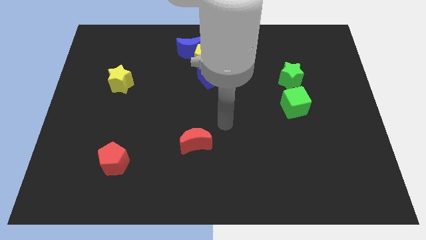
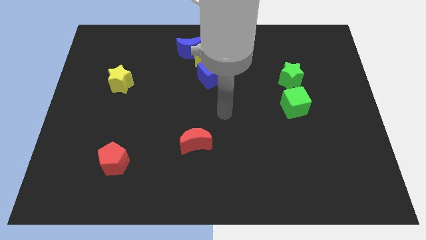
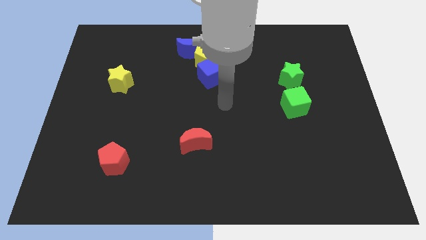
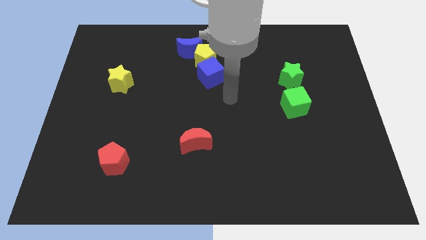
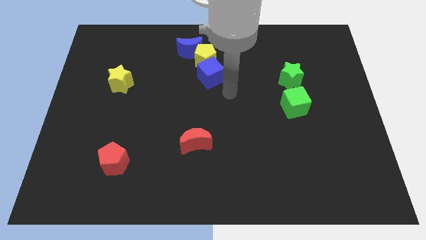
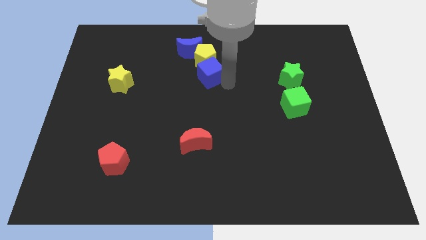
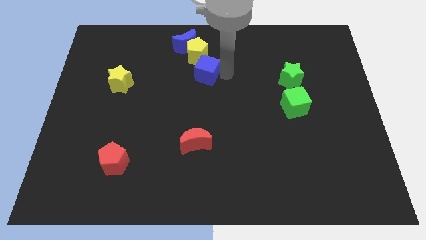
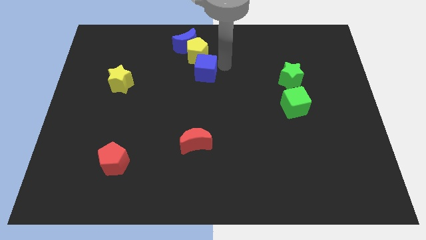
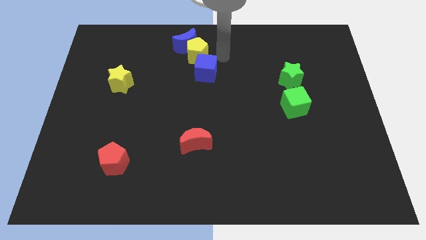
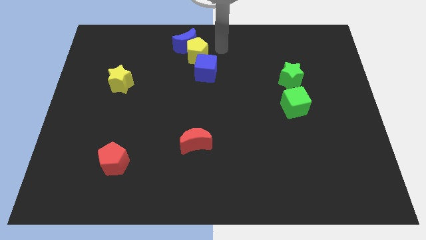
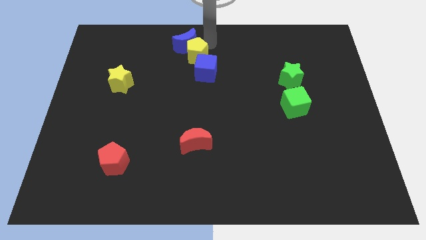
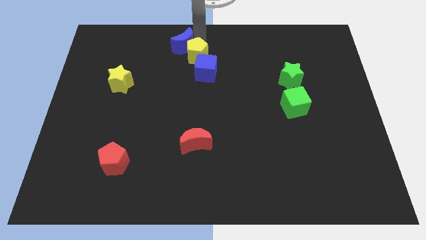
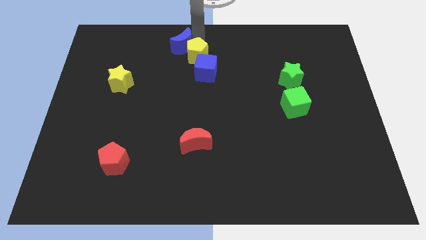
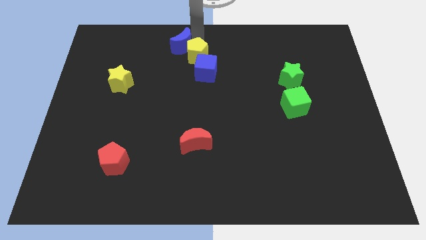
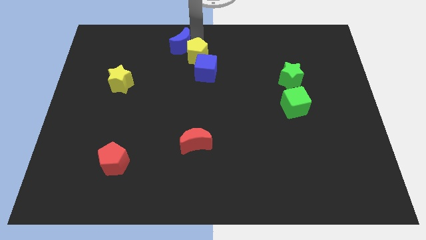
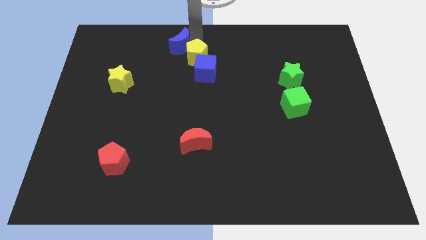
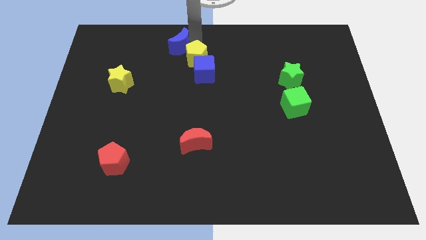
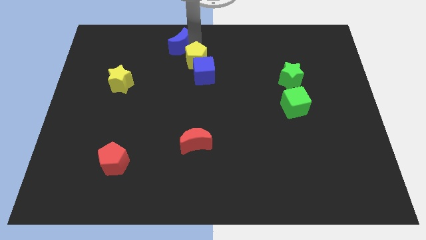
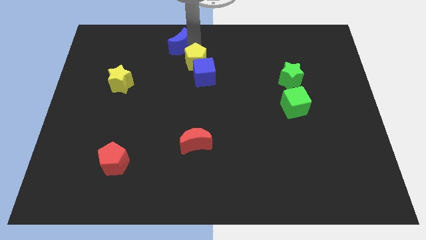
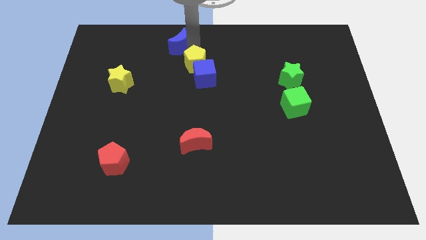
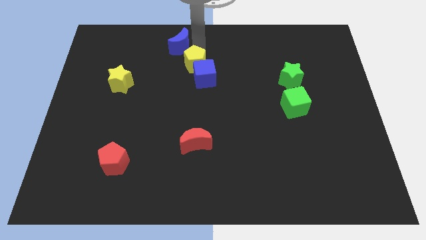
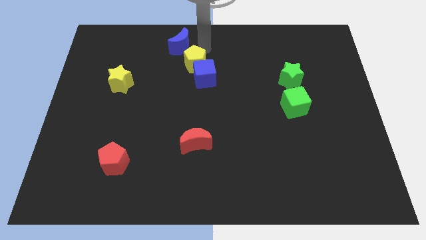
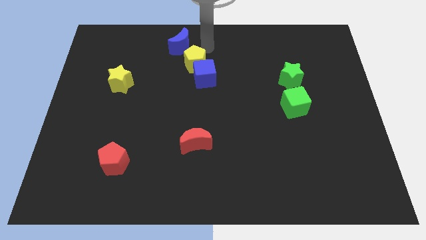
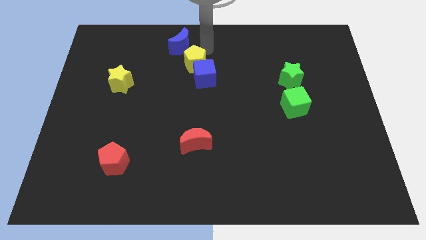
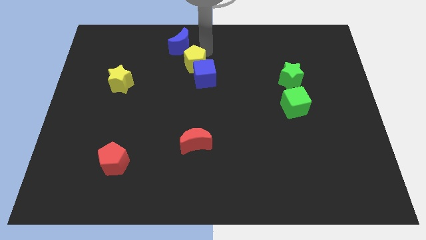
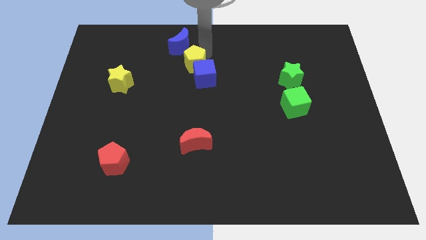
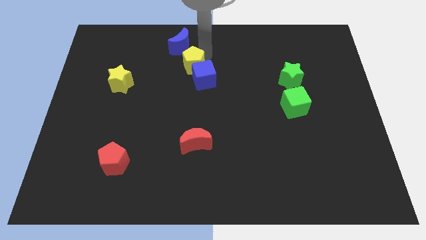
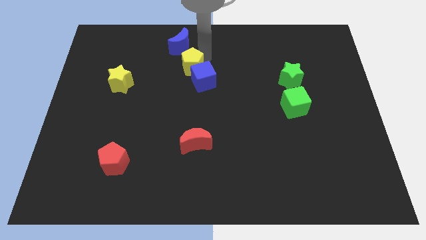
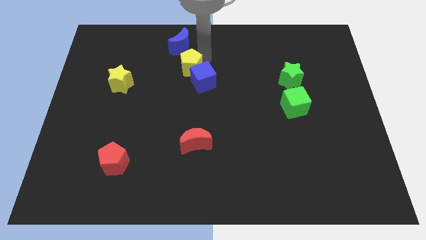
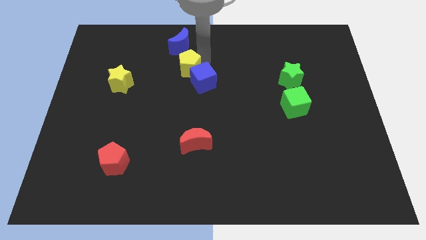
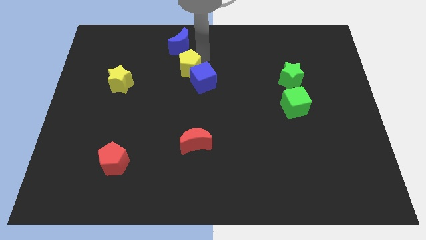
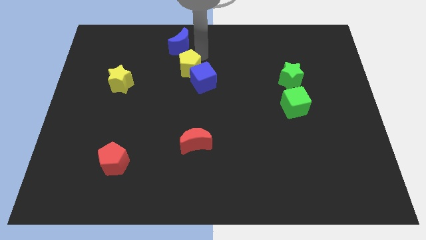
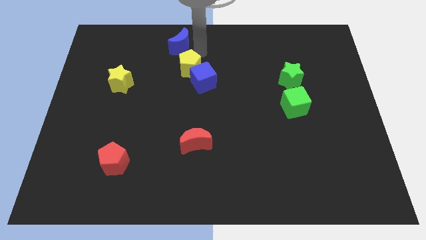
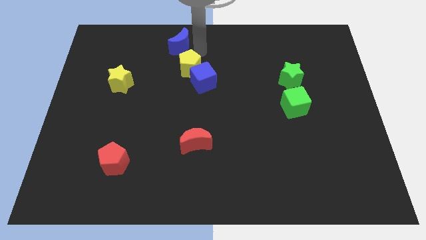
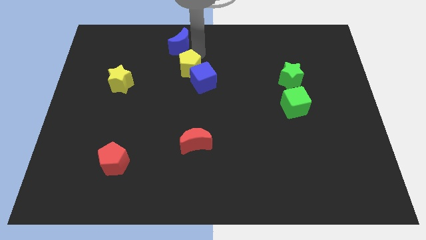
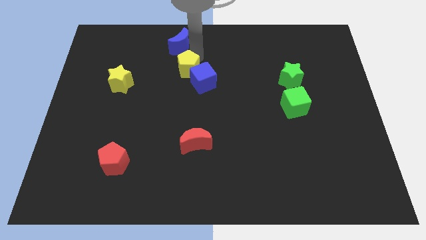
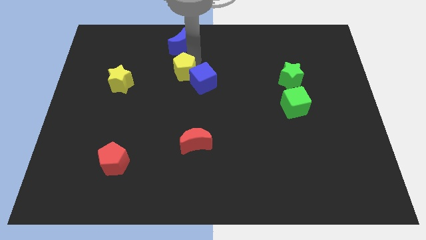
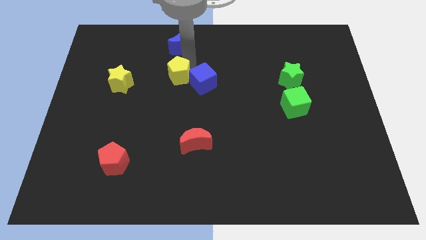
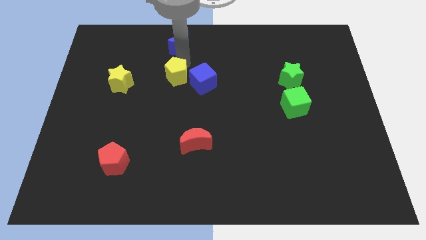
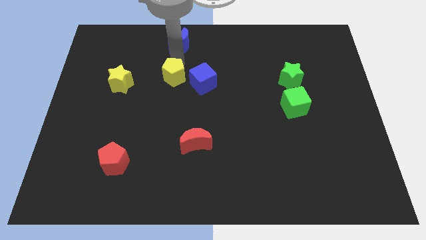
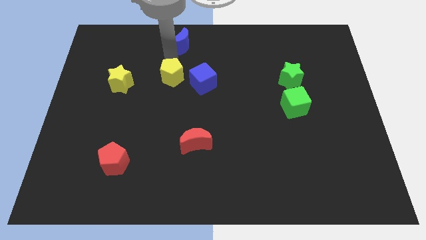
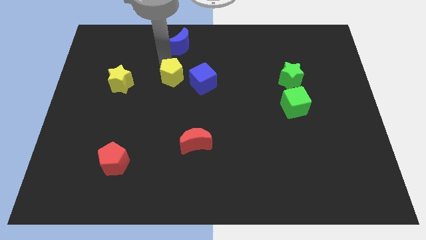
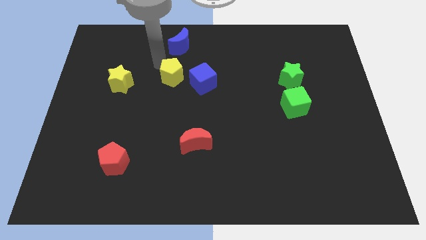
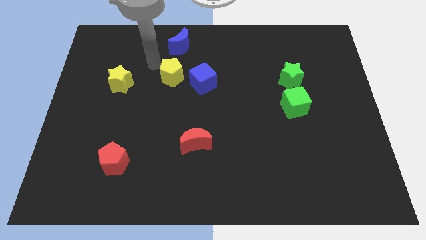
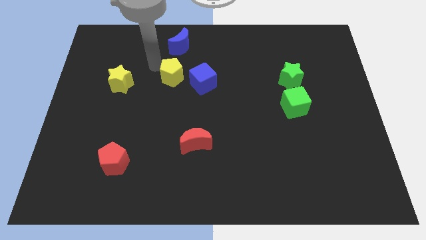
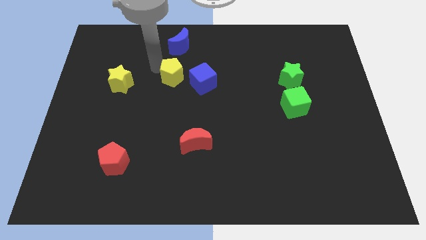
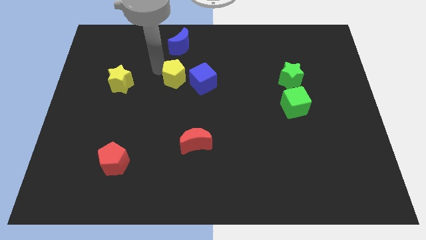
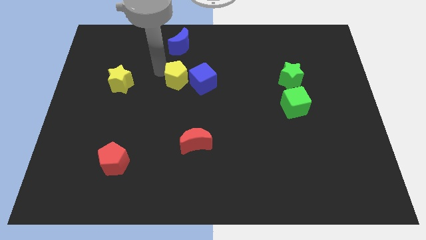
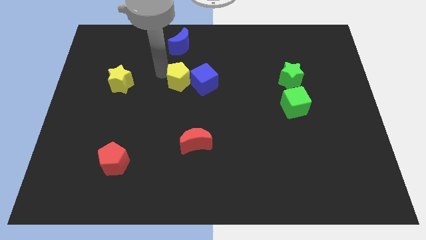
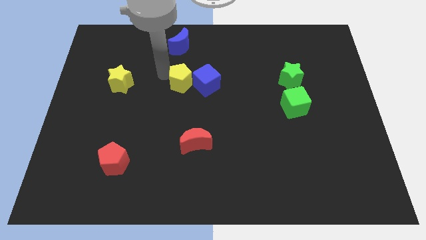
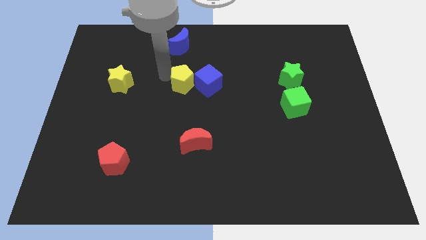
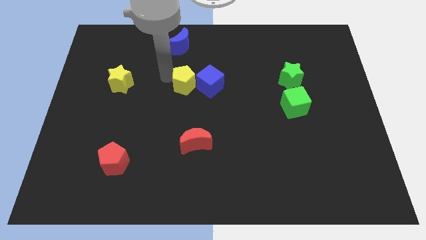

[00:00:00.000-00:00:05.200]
slightly move the yellow pentagon downwards

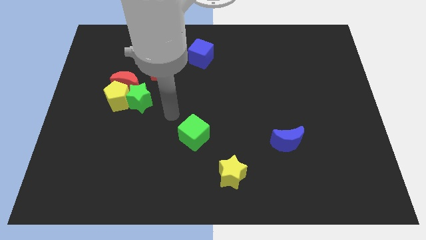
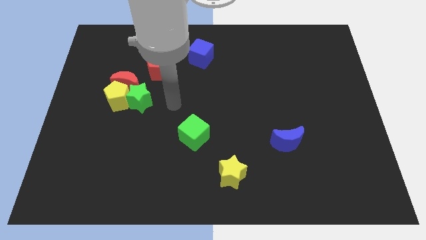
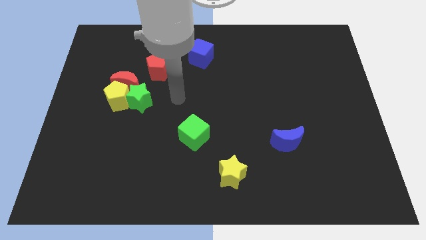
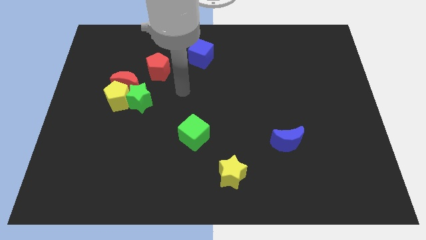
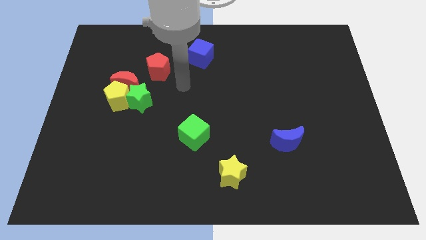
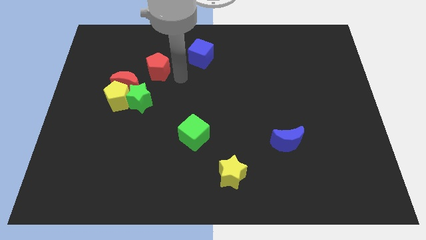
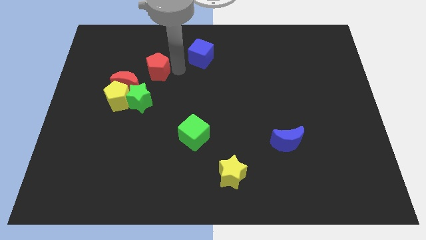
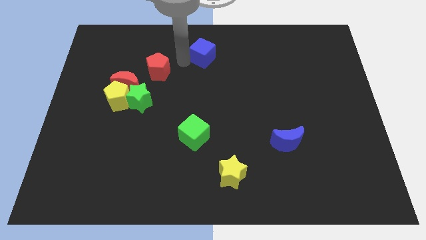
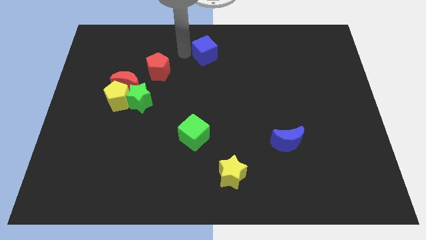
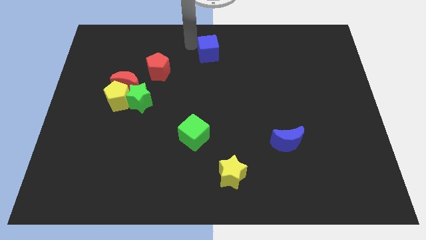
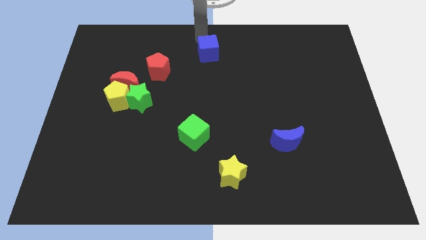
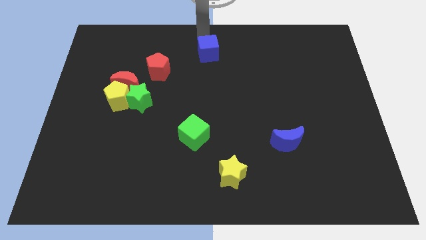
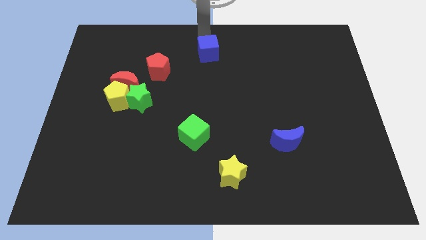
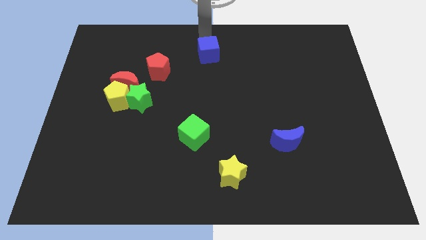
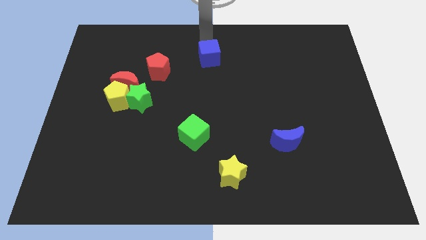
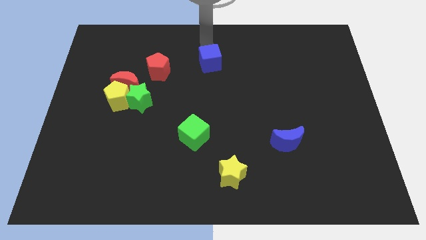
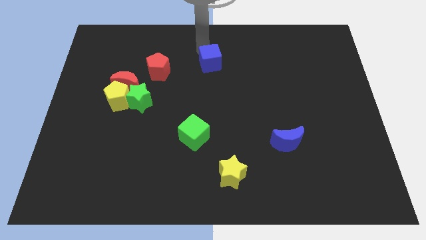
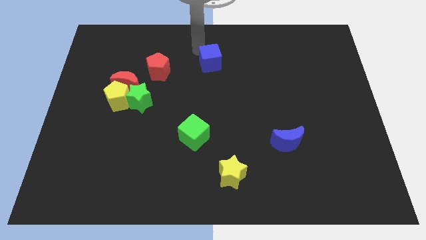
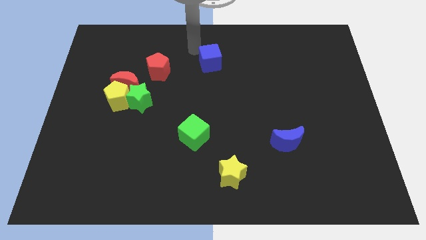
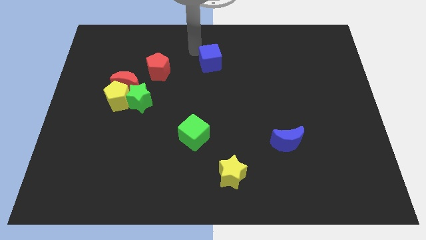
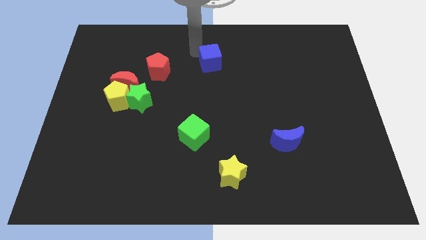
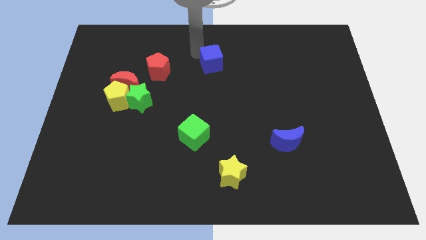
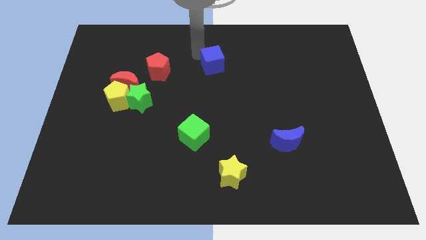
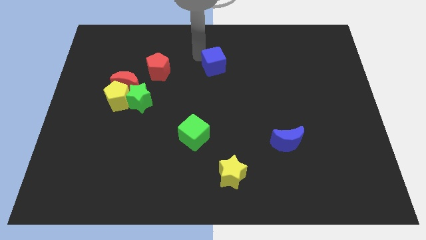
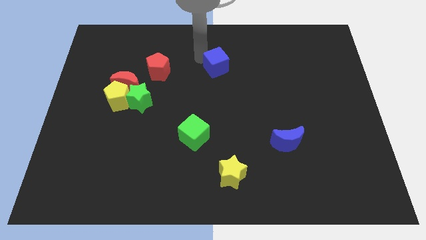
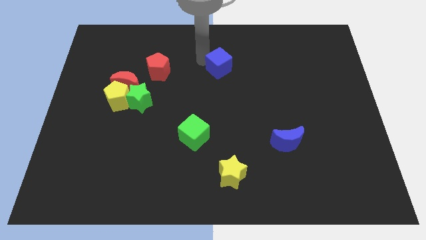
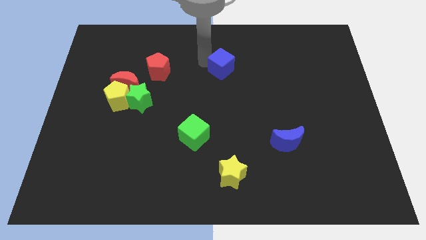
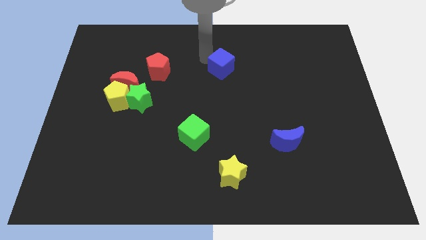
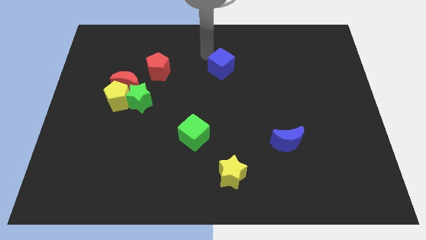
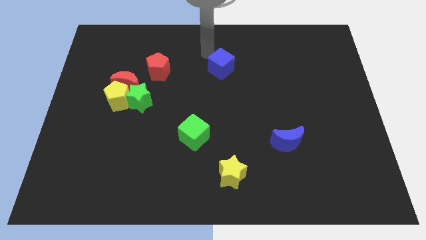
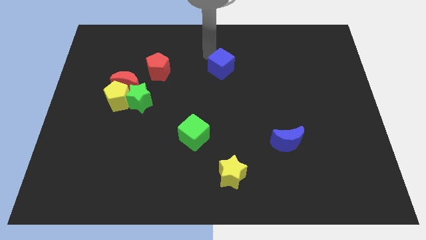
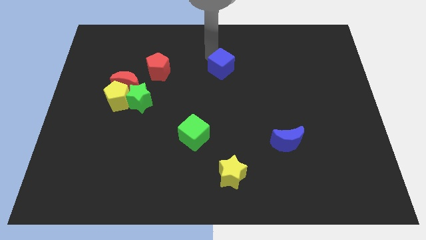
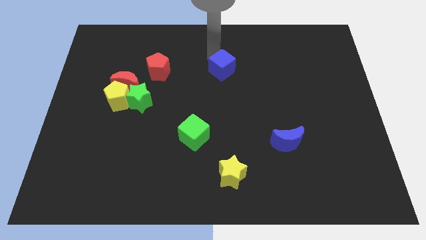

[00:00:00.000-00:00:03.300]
slide the blue cube a little downwards and right
